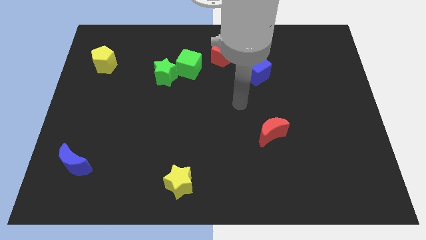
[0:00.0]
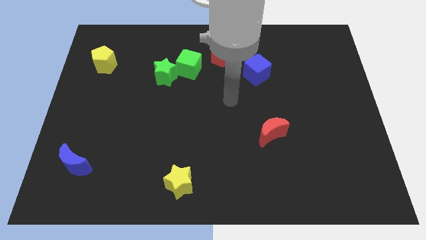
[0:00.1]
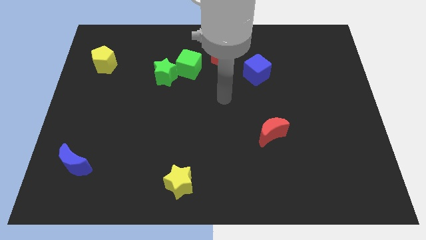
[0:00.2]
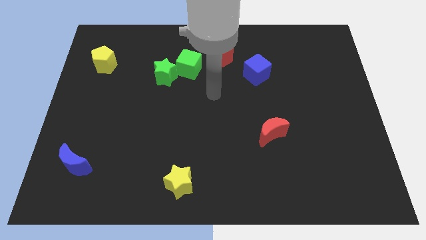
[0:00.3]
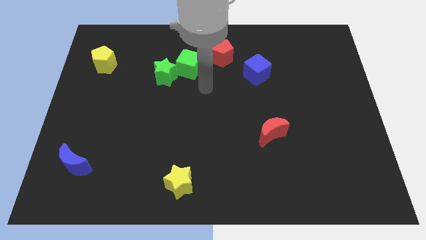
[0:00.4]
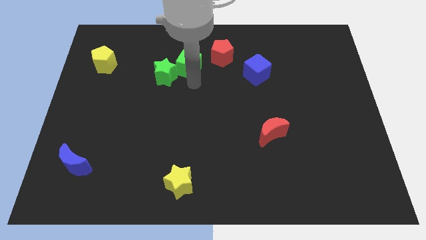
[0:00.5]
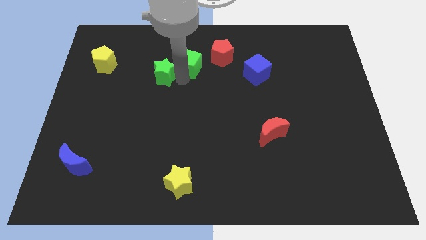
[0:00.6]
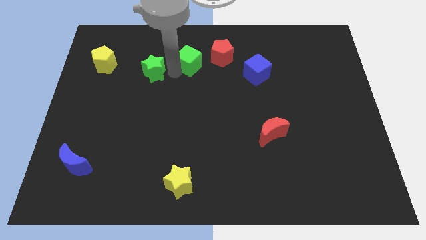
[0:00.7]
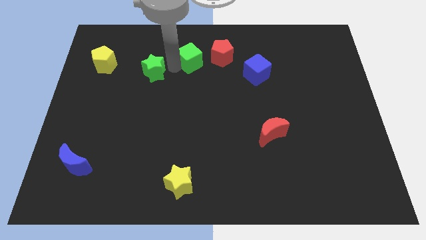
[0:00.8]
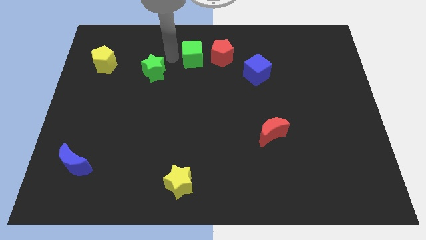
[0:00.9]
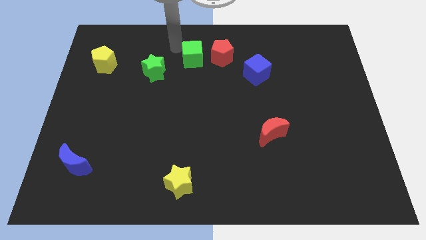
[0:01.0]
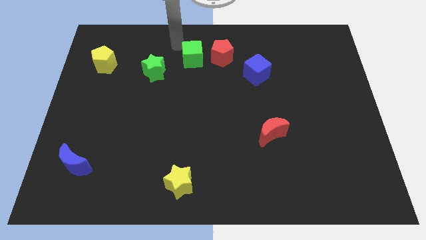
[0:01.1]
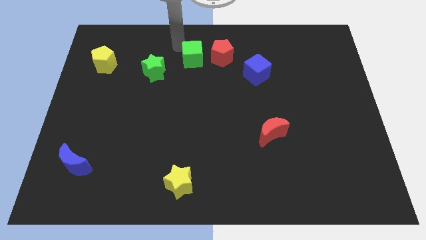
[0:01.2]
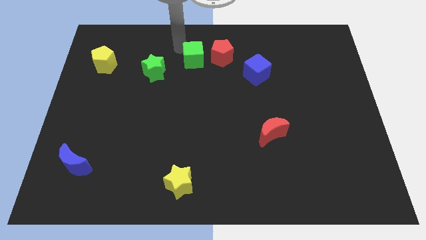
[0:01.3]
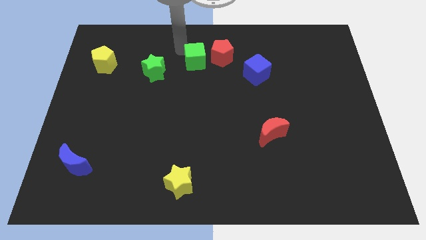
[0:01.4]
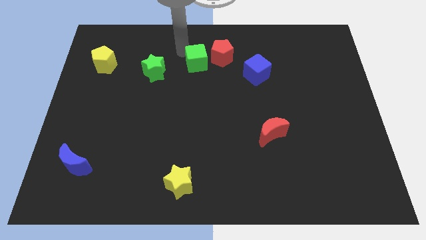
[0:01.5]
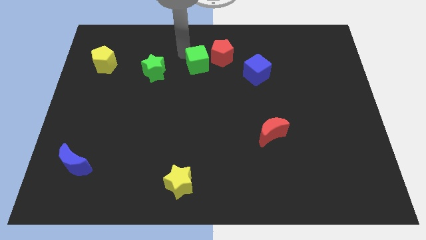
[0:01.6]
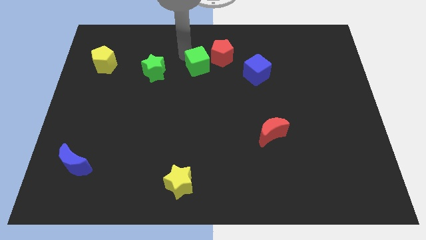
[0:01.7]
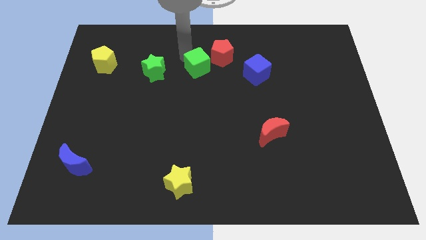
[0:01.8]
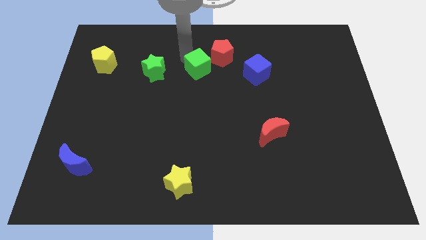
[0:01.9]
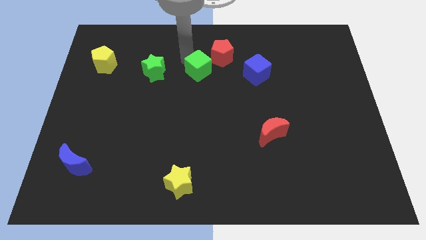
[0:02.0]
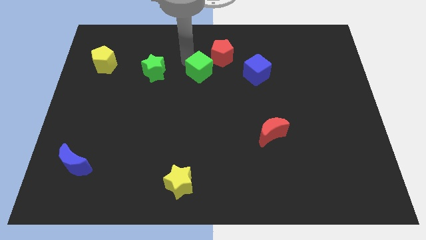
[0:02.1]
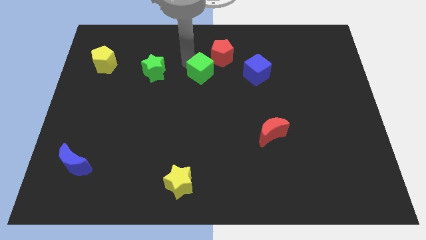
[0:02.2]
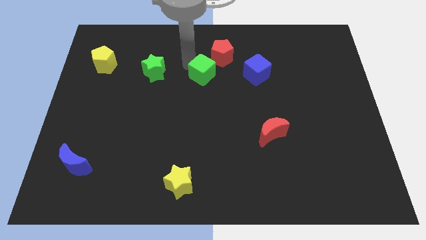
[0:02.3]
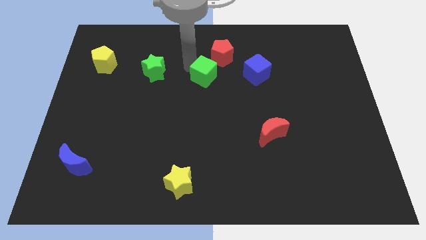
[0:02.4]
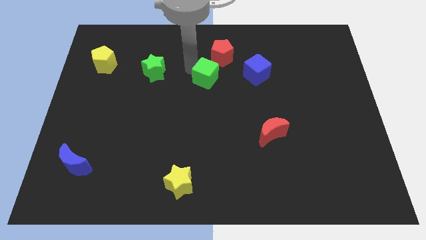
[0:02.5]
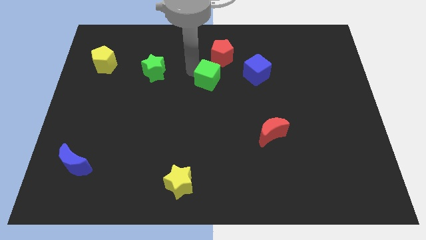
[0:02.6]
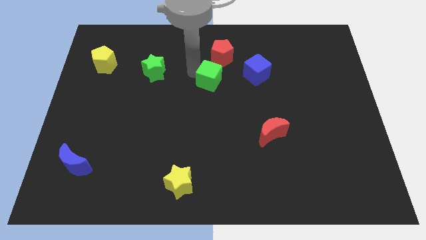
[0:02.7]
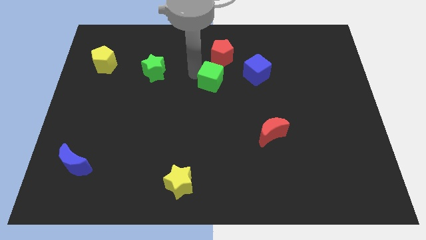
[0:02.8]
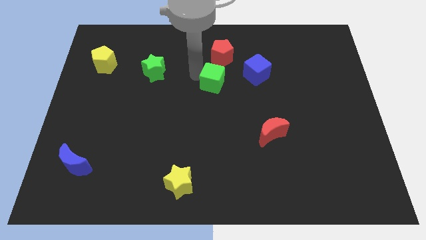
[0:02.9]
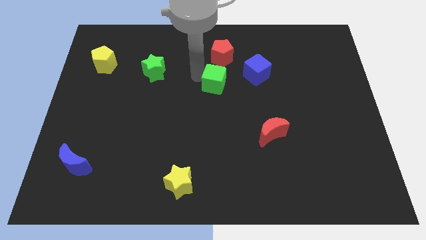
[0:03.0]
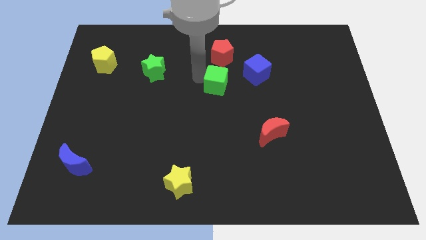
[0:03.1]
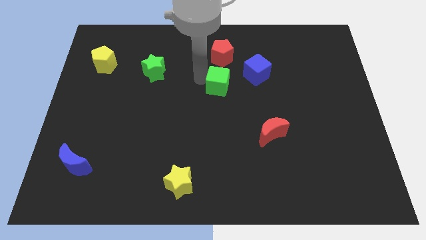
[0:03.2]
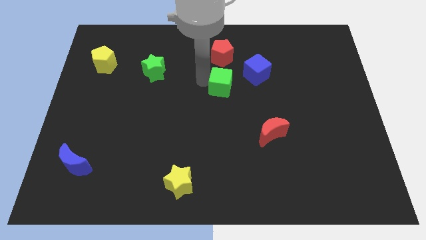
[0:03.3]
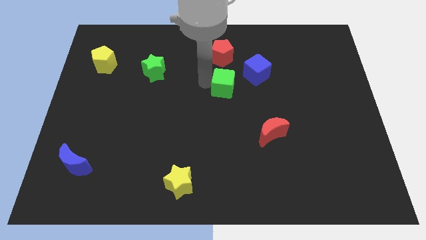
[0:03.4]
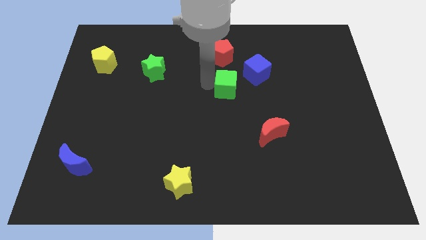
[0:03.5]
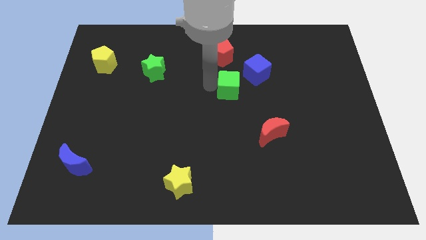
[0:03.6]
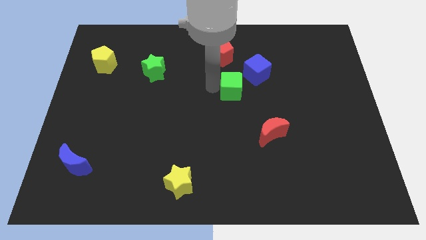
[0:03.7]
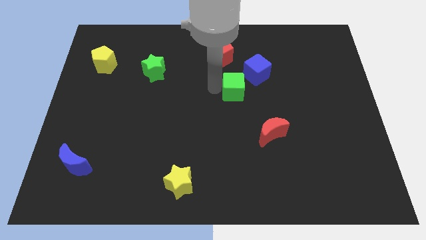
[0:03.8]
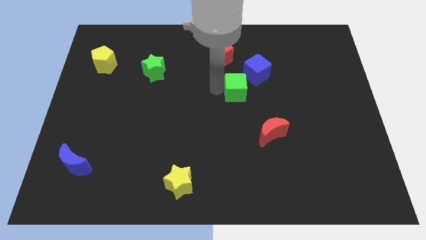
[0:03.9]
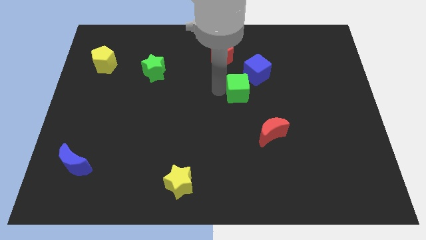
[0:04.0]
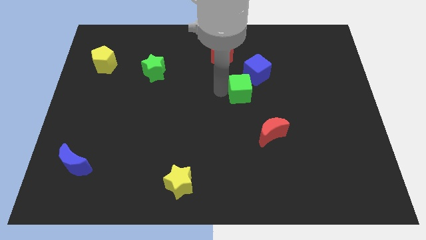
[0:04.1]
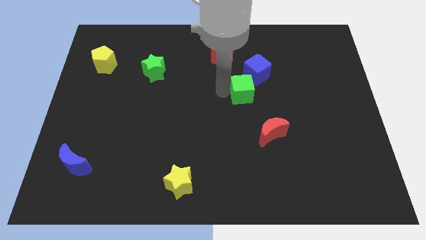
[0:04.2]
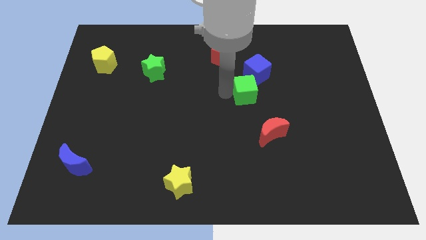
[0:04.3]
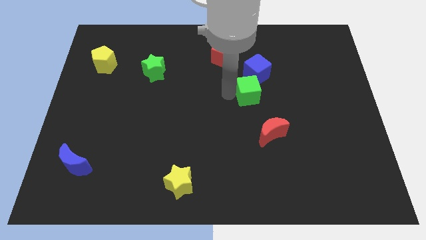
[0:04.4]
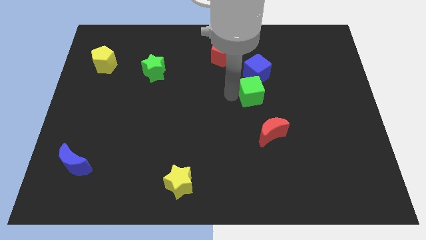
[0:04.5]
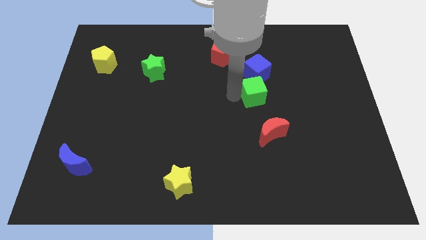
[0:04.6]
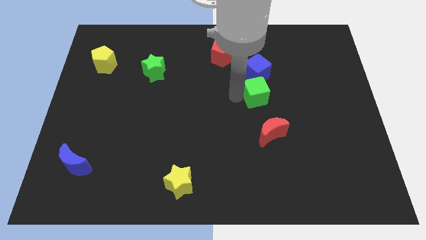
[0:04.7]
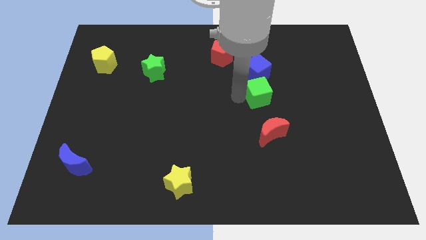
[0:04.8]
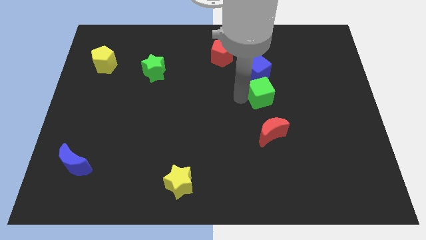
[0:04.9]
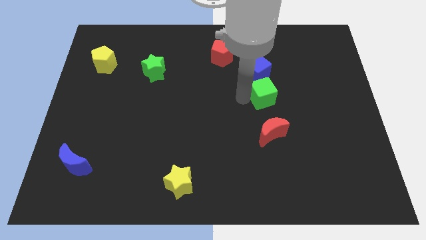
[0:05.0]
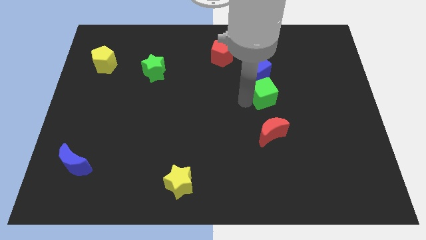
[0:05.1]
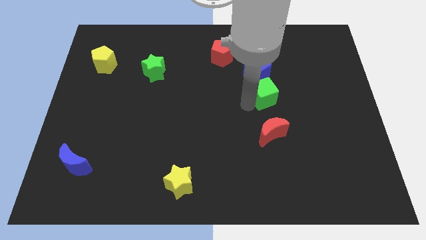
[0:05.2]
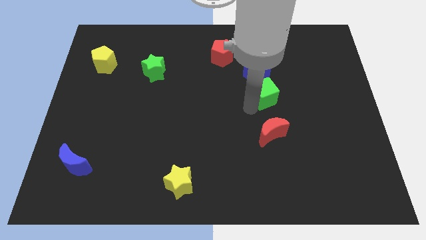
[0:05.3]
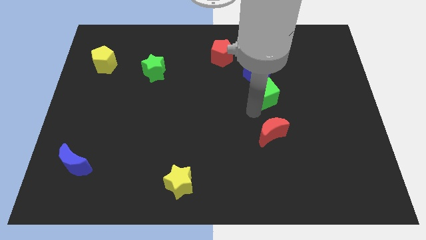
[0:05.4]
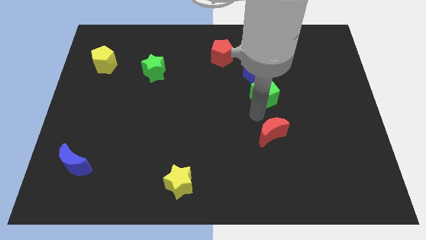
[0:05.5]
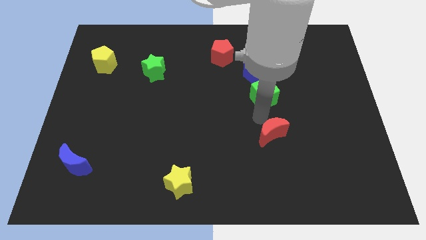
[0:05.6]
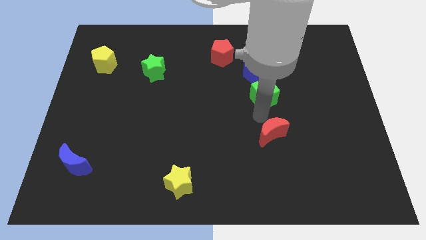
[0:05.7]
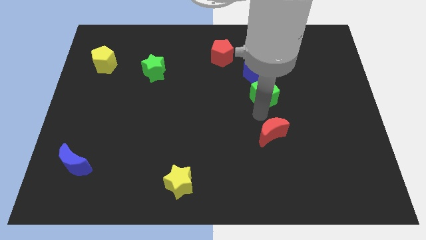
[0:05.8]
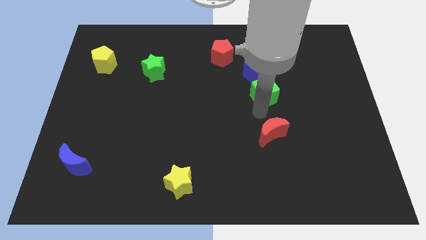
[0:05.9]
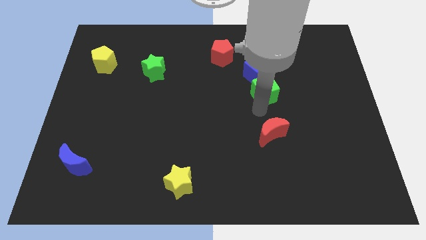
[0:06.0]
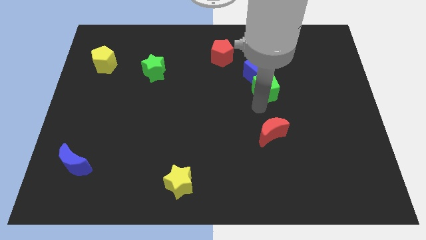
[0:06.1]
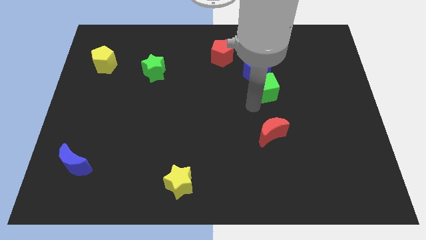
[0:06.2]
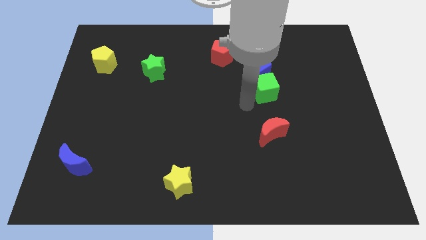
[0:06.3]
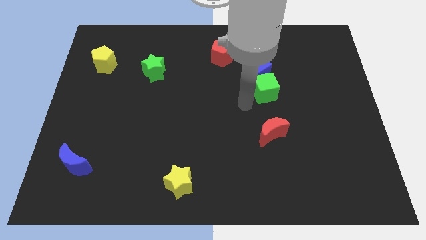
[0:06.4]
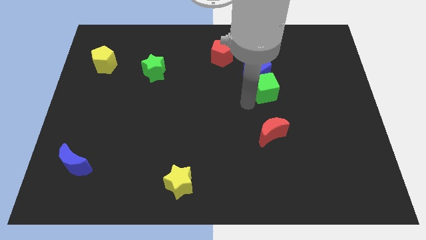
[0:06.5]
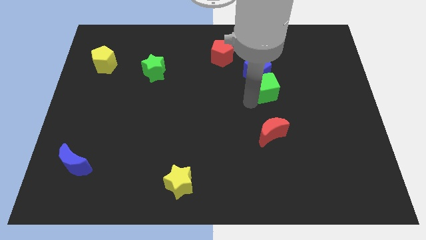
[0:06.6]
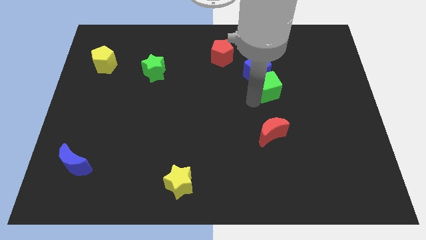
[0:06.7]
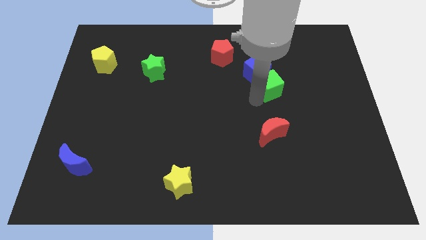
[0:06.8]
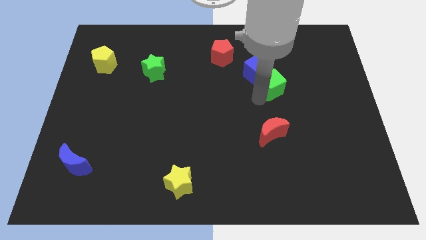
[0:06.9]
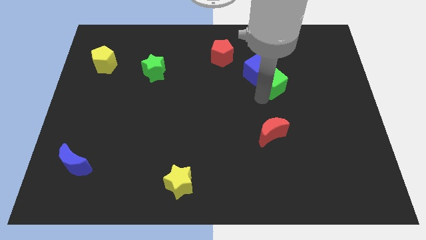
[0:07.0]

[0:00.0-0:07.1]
slide the green cube to the right side of the blue cube
